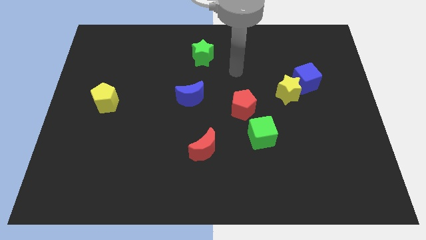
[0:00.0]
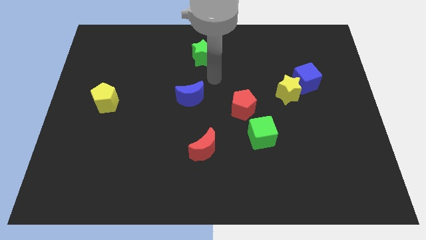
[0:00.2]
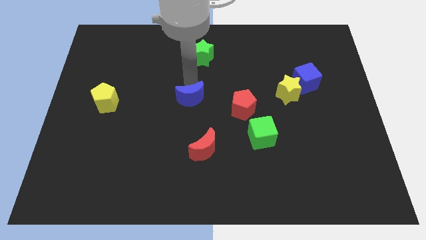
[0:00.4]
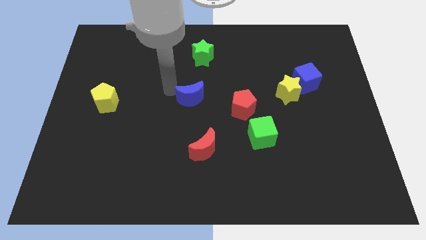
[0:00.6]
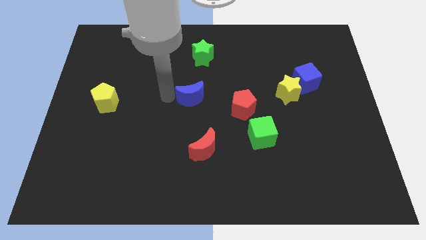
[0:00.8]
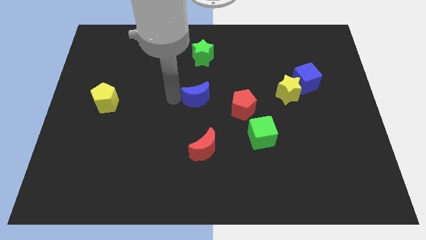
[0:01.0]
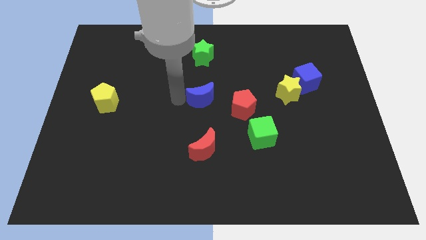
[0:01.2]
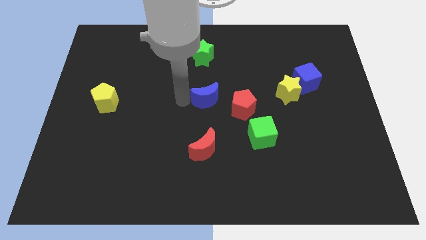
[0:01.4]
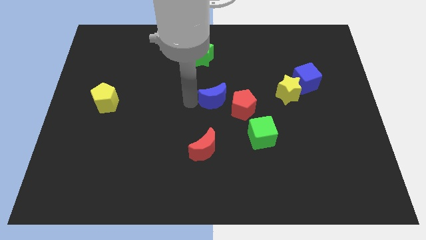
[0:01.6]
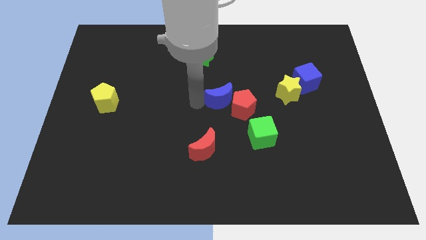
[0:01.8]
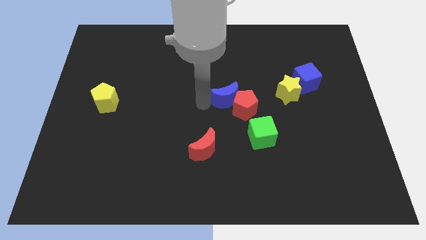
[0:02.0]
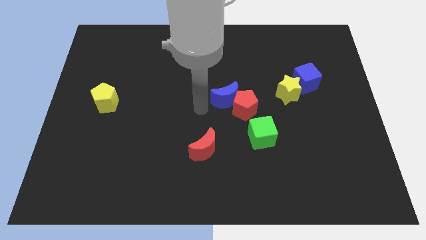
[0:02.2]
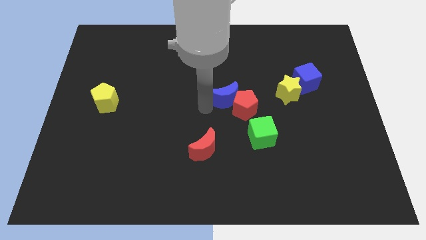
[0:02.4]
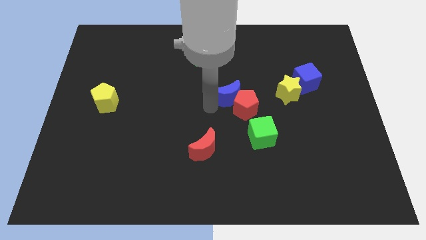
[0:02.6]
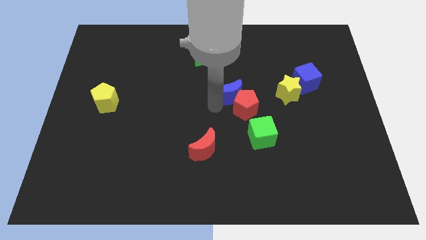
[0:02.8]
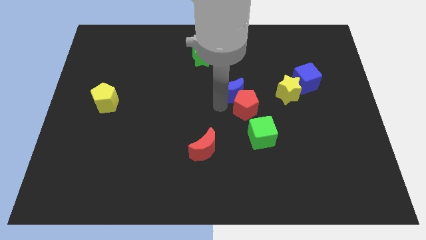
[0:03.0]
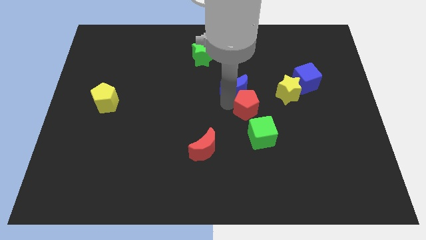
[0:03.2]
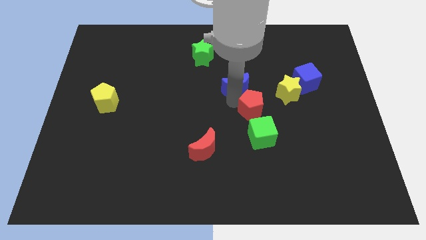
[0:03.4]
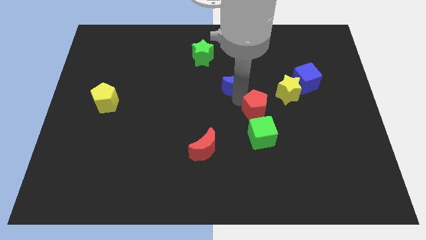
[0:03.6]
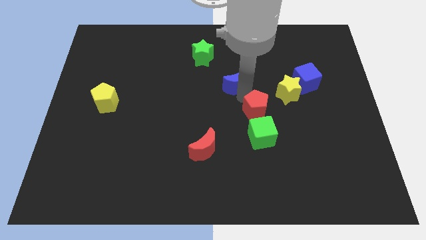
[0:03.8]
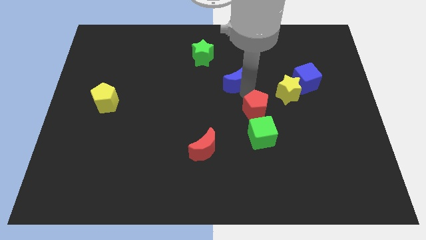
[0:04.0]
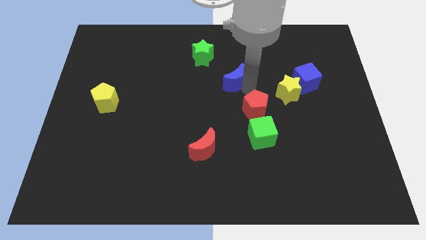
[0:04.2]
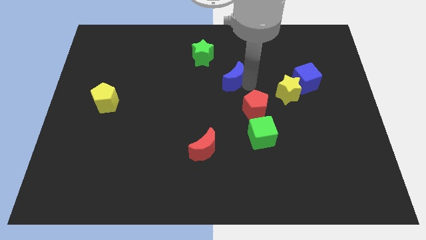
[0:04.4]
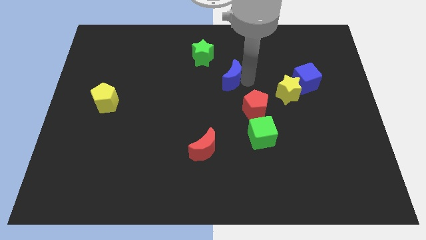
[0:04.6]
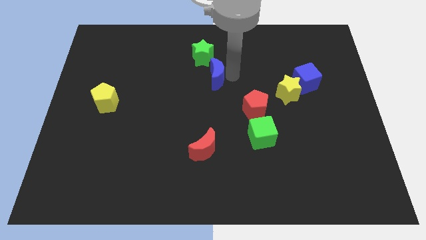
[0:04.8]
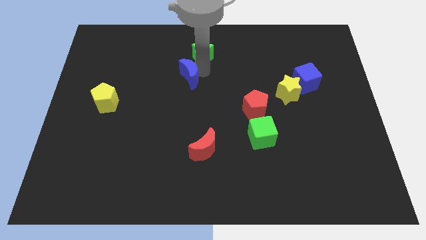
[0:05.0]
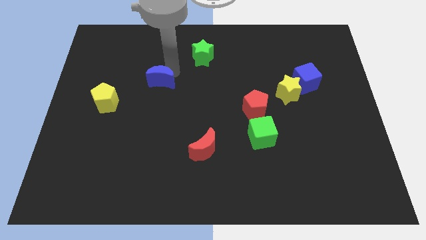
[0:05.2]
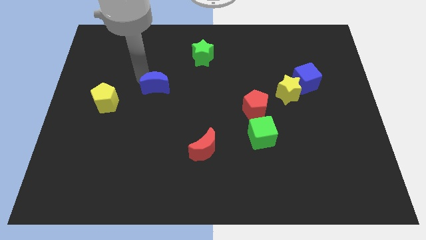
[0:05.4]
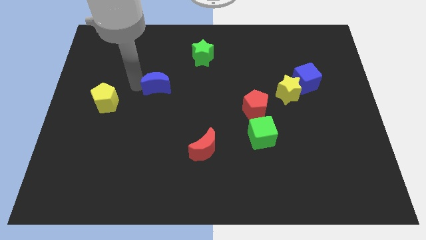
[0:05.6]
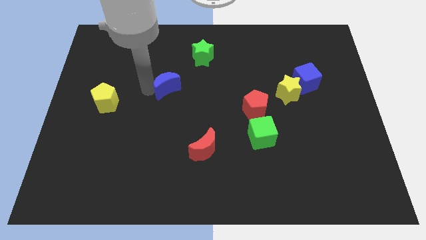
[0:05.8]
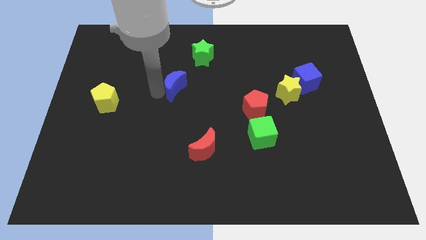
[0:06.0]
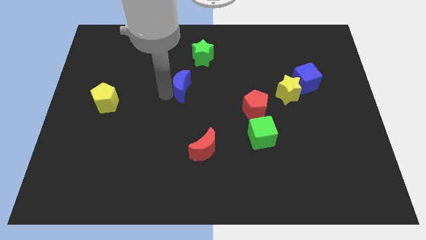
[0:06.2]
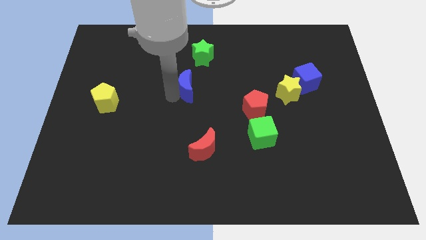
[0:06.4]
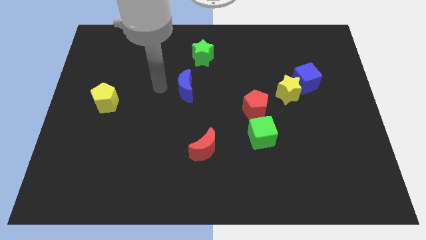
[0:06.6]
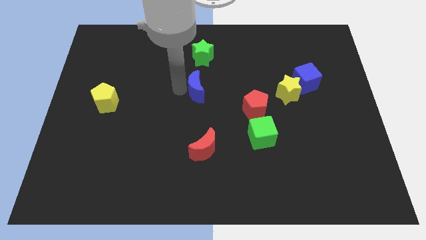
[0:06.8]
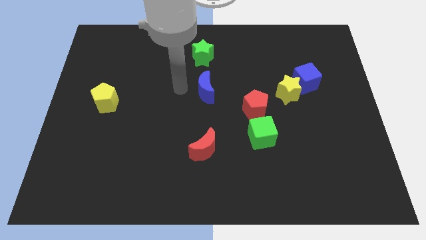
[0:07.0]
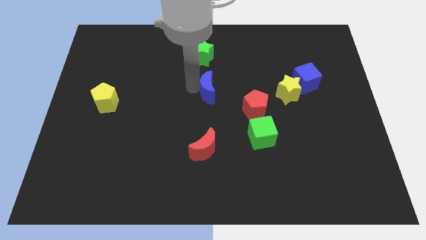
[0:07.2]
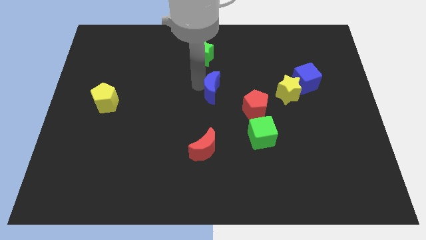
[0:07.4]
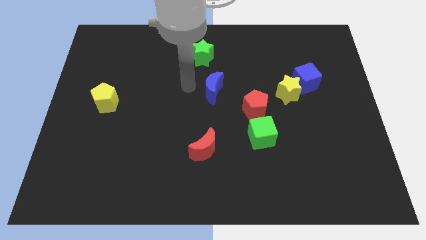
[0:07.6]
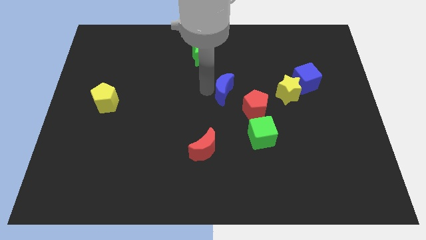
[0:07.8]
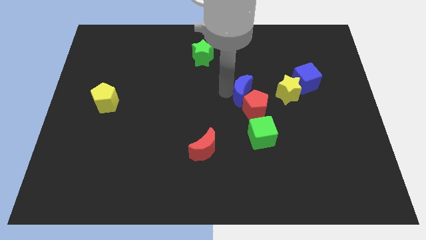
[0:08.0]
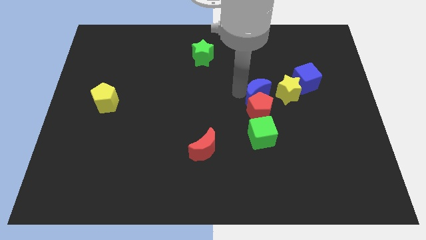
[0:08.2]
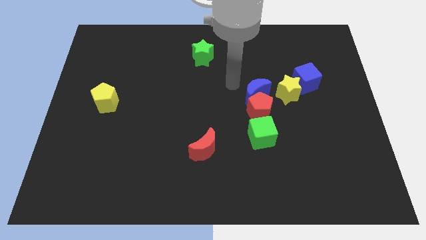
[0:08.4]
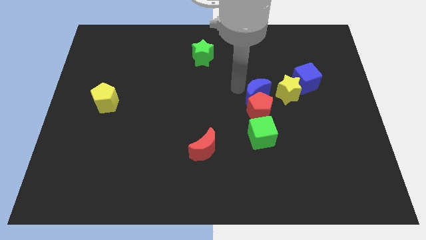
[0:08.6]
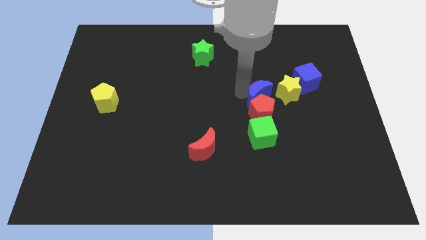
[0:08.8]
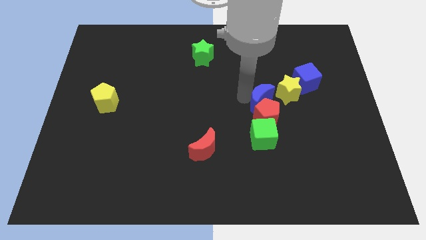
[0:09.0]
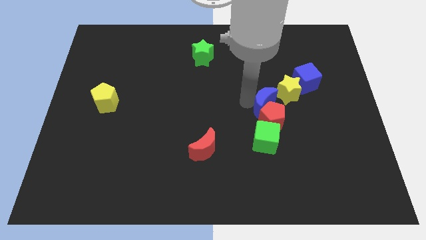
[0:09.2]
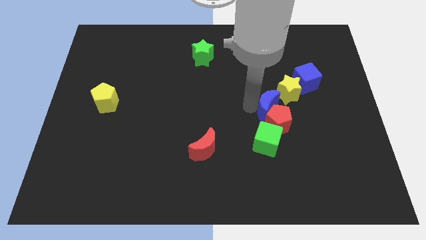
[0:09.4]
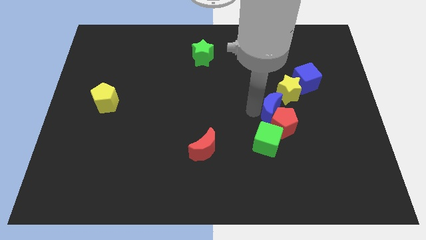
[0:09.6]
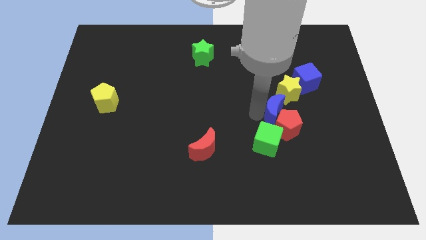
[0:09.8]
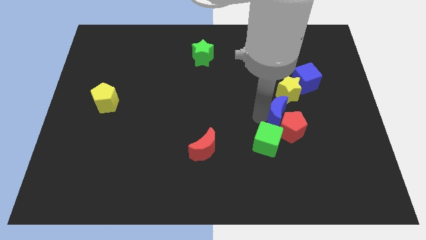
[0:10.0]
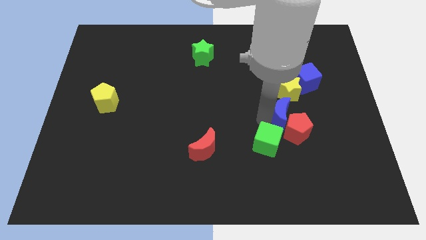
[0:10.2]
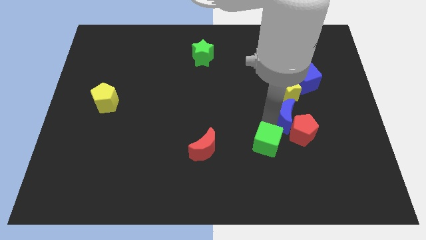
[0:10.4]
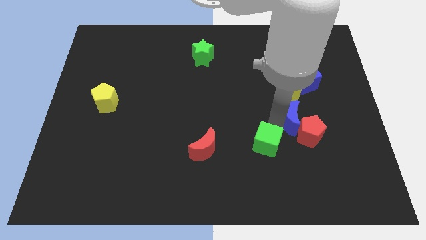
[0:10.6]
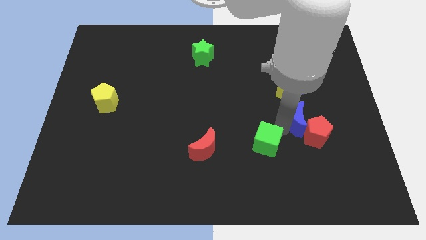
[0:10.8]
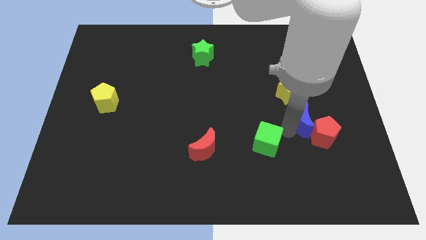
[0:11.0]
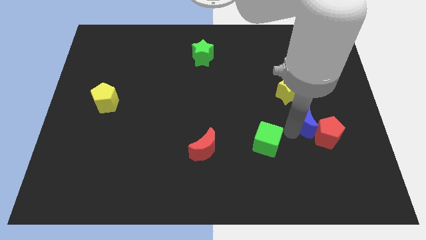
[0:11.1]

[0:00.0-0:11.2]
move the blue moon diagonally down and to the right of the yellow star

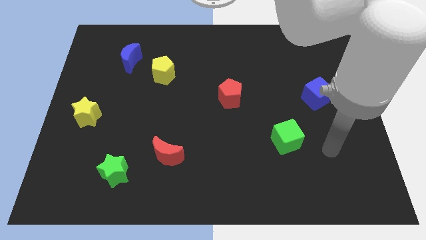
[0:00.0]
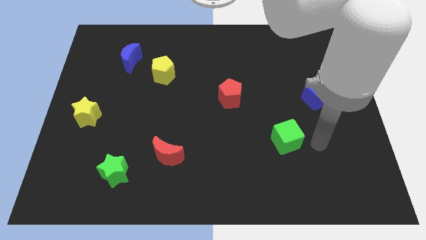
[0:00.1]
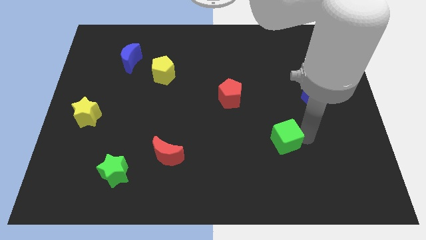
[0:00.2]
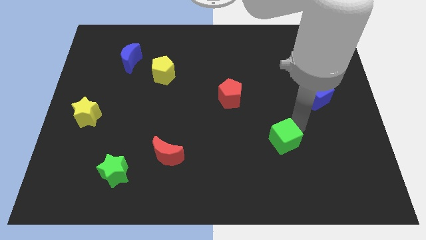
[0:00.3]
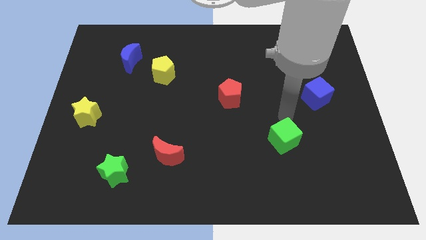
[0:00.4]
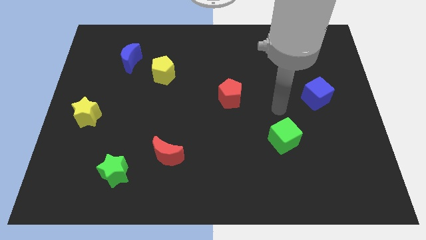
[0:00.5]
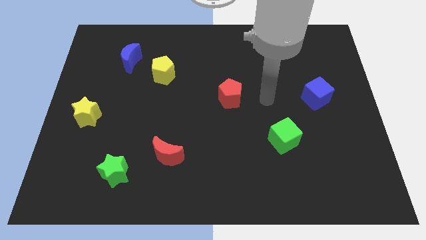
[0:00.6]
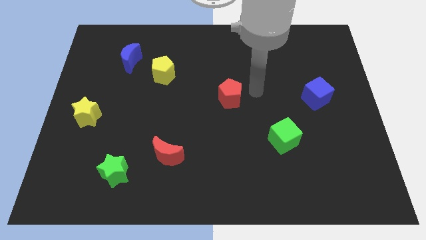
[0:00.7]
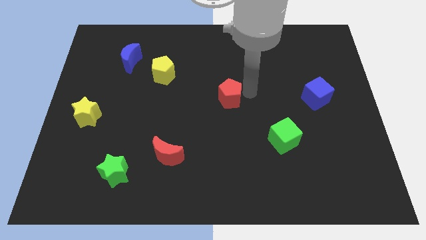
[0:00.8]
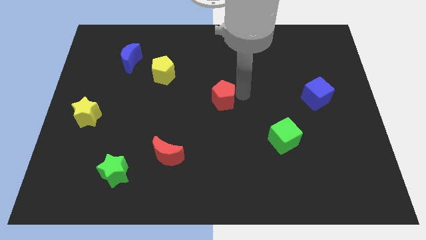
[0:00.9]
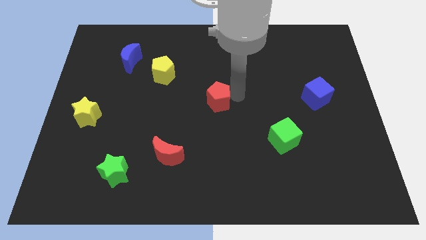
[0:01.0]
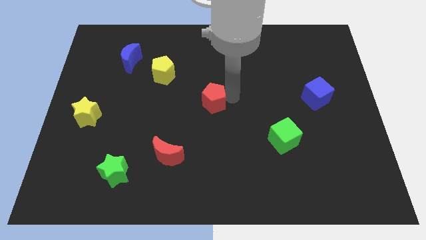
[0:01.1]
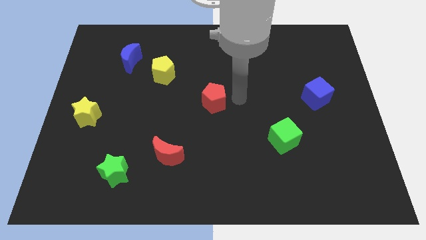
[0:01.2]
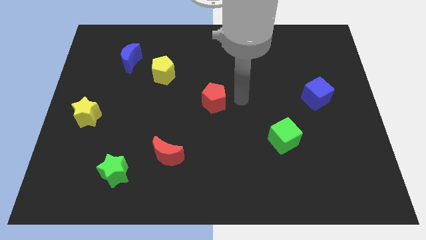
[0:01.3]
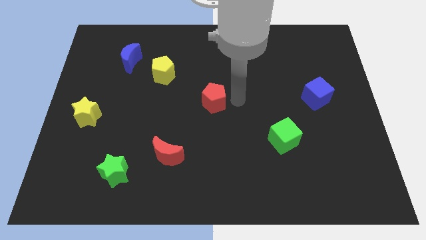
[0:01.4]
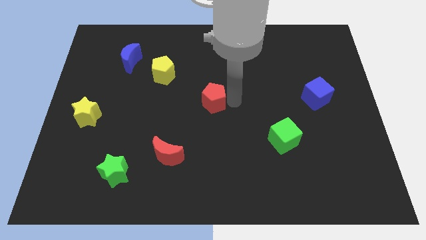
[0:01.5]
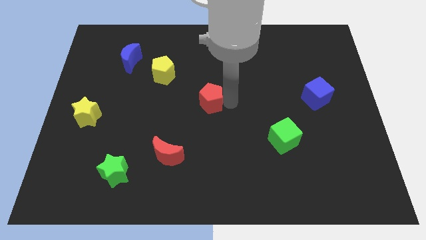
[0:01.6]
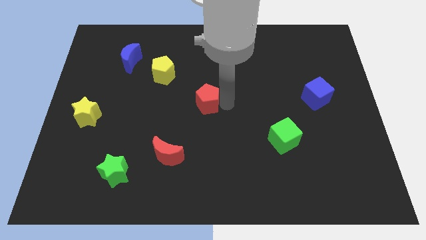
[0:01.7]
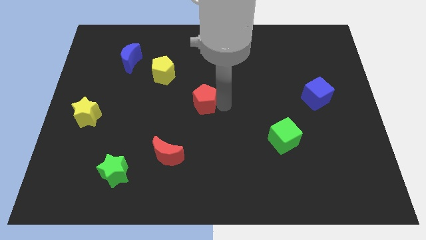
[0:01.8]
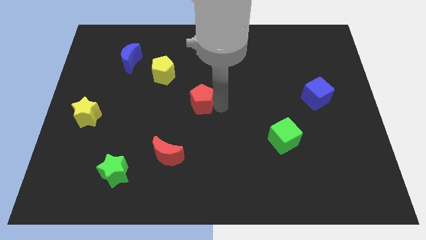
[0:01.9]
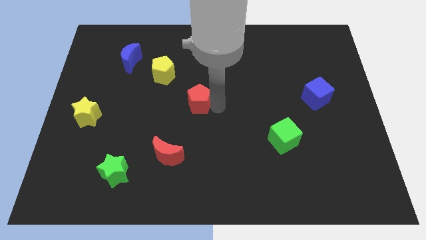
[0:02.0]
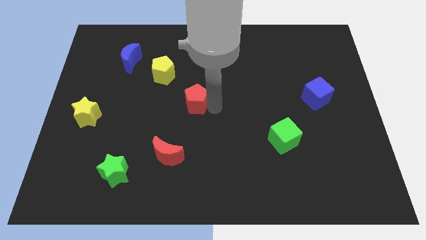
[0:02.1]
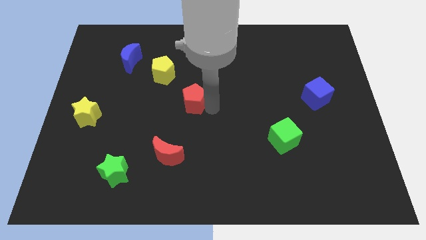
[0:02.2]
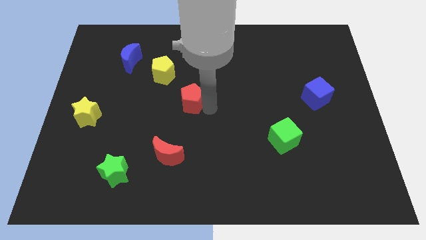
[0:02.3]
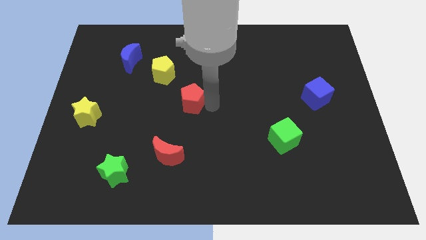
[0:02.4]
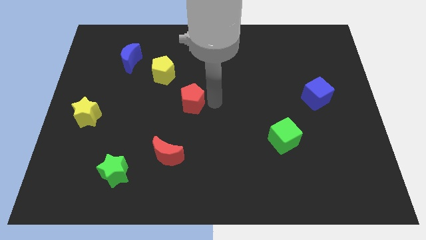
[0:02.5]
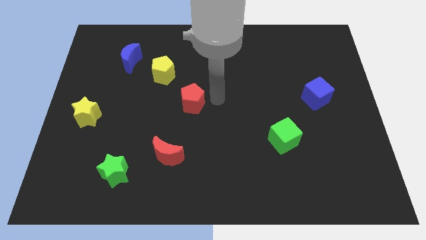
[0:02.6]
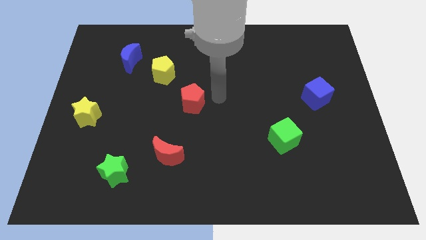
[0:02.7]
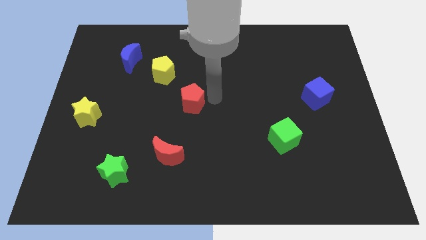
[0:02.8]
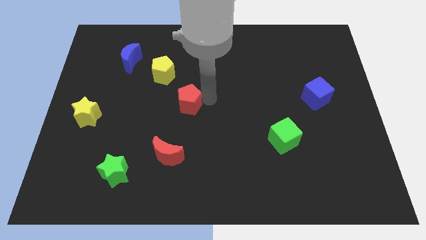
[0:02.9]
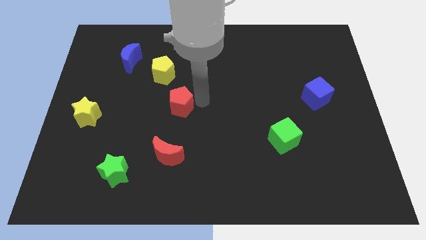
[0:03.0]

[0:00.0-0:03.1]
push the red pentagon to the bottom of the yellow pentagon
